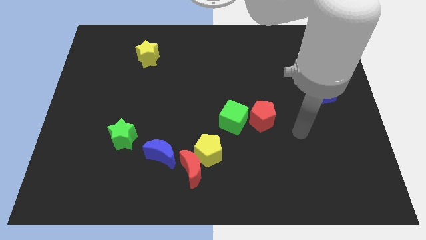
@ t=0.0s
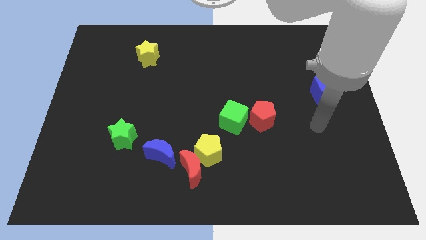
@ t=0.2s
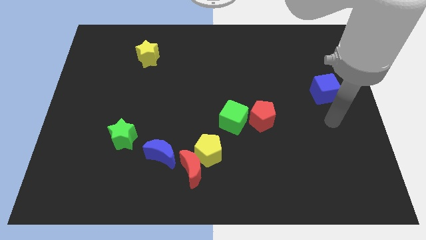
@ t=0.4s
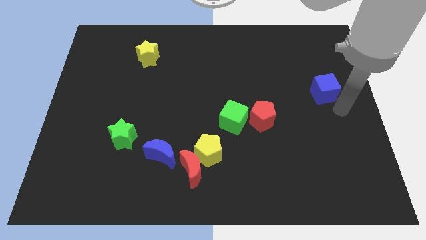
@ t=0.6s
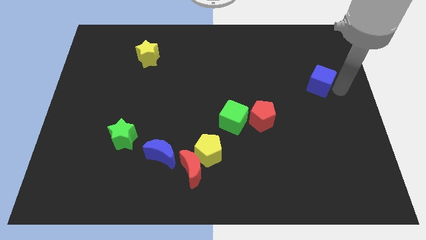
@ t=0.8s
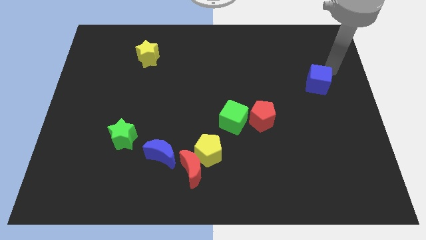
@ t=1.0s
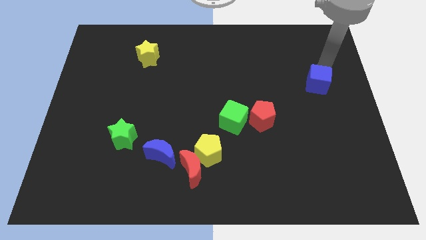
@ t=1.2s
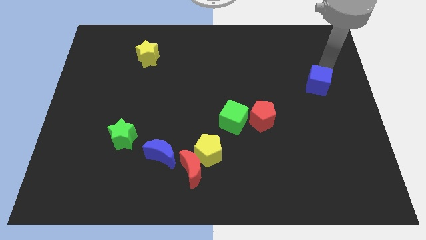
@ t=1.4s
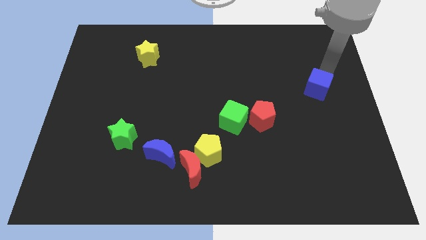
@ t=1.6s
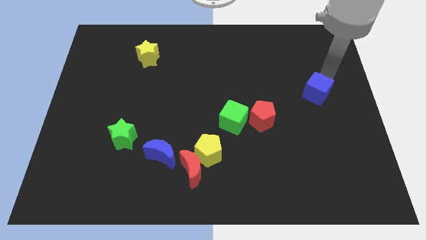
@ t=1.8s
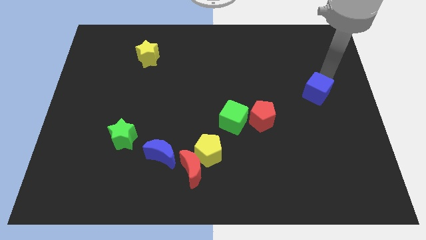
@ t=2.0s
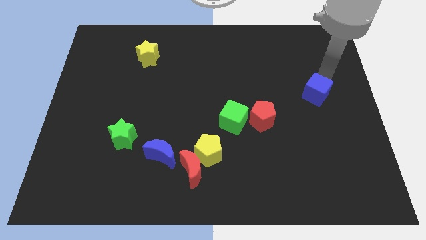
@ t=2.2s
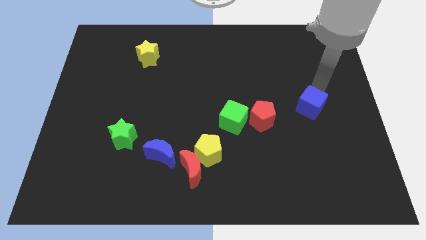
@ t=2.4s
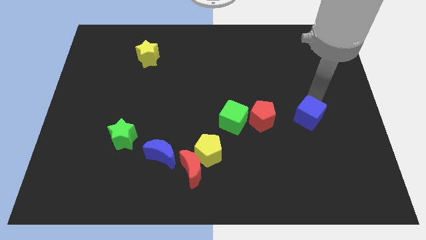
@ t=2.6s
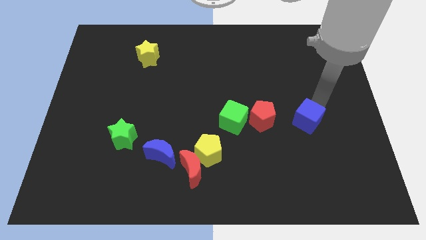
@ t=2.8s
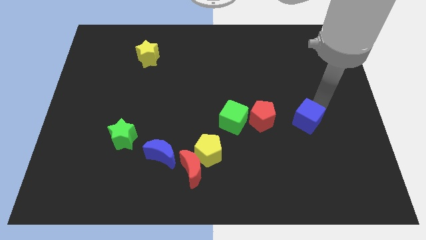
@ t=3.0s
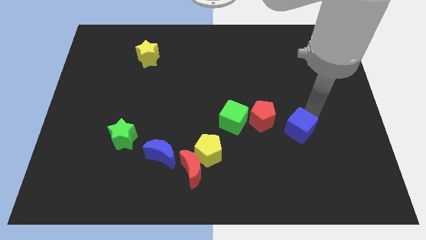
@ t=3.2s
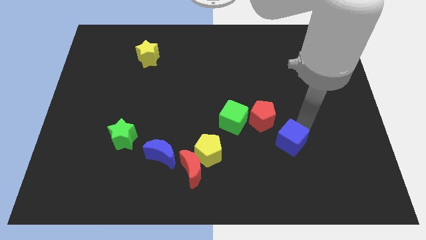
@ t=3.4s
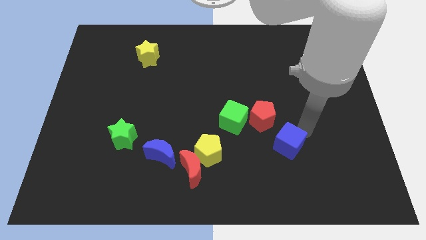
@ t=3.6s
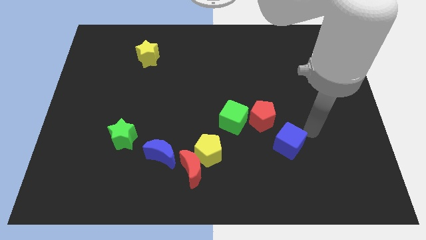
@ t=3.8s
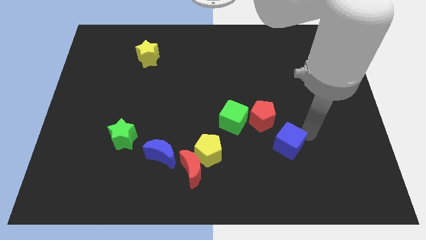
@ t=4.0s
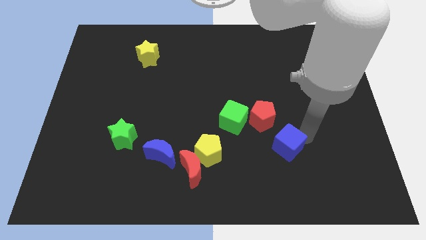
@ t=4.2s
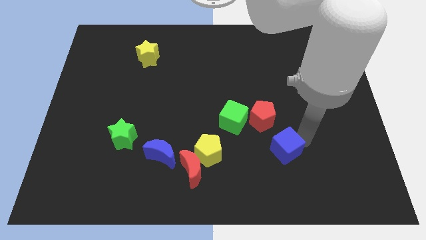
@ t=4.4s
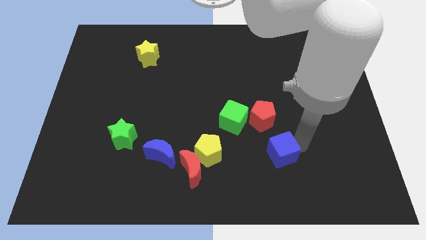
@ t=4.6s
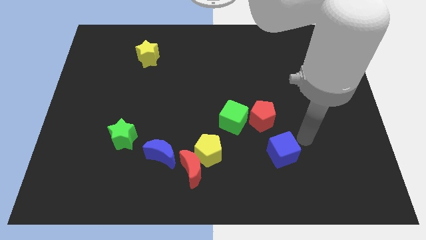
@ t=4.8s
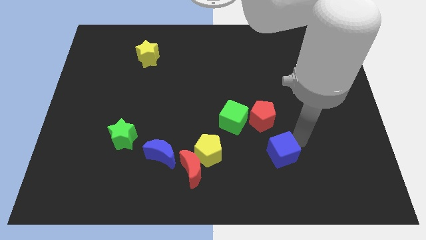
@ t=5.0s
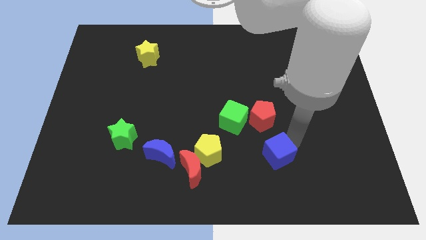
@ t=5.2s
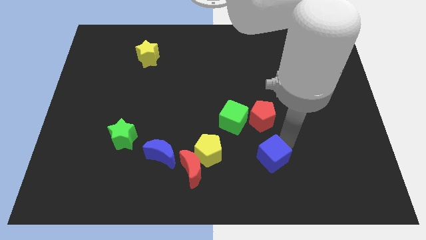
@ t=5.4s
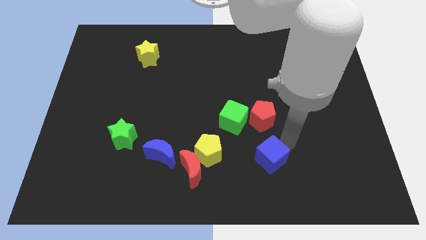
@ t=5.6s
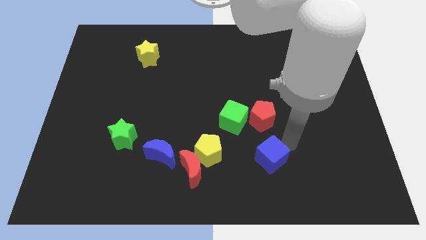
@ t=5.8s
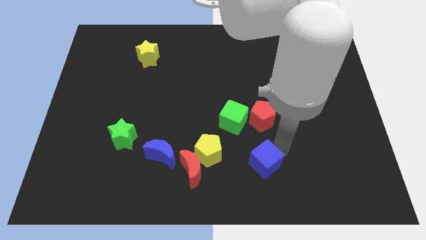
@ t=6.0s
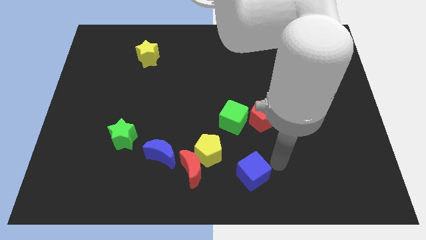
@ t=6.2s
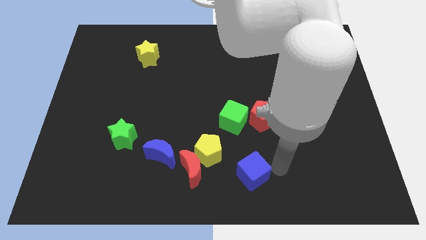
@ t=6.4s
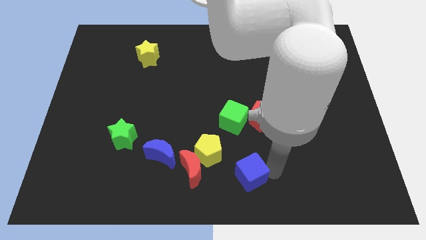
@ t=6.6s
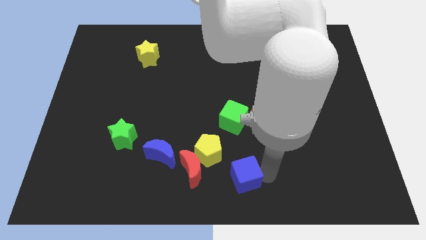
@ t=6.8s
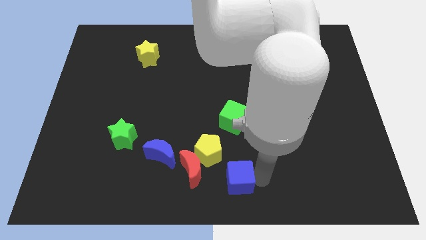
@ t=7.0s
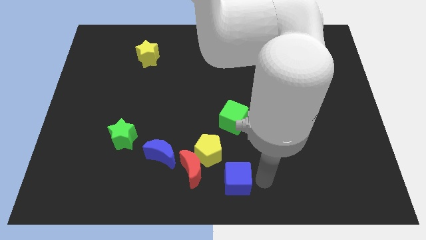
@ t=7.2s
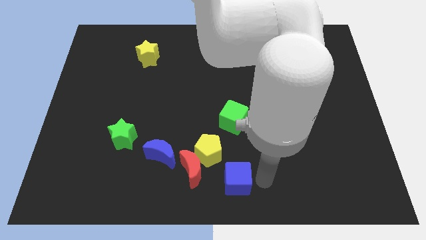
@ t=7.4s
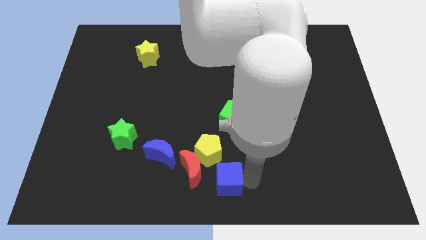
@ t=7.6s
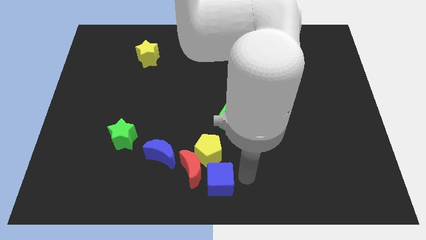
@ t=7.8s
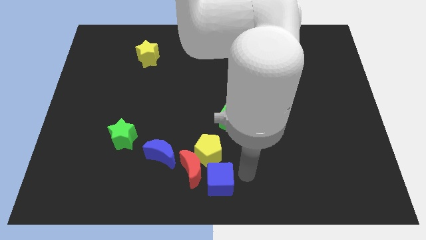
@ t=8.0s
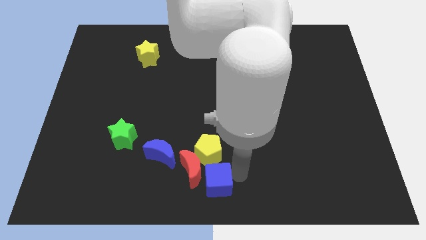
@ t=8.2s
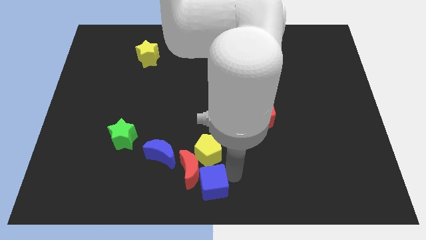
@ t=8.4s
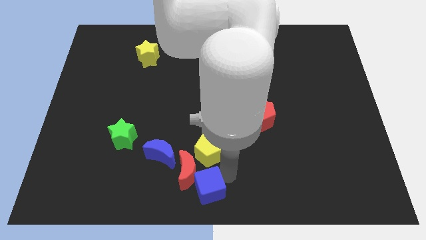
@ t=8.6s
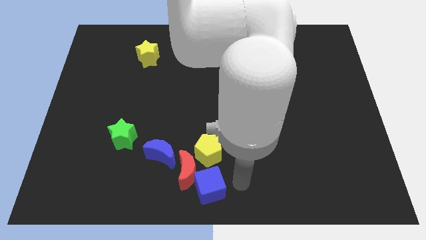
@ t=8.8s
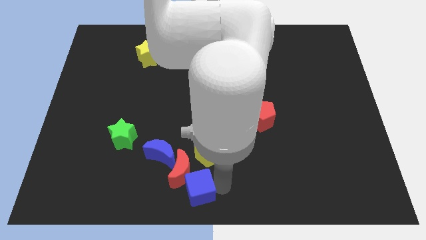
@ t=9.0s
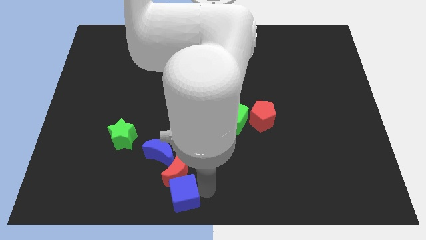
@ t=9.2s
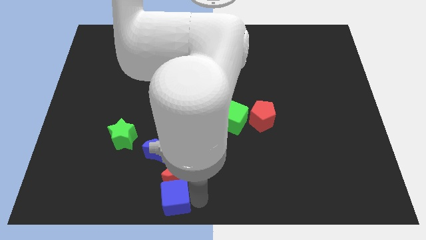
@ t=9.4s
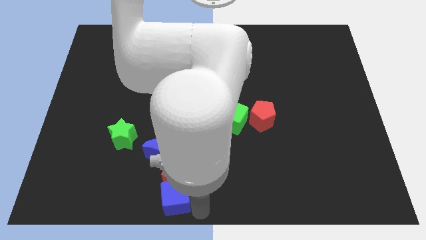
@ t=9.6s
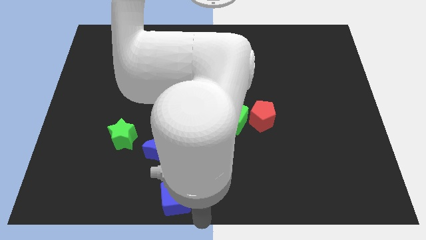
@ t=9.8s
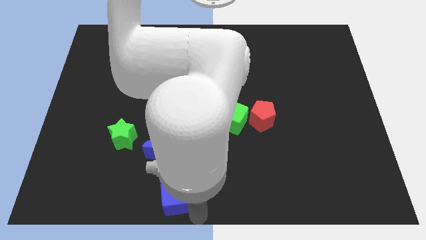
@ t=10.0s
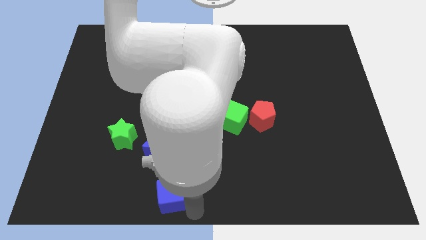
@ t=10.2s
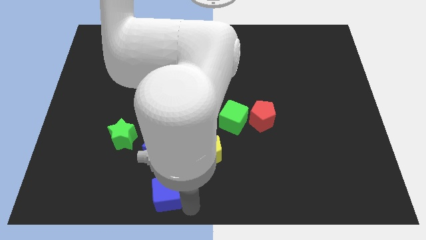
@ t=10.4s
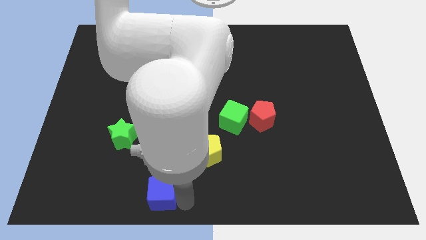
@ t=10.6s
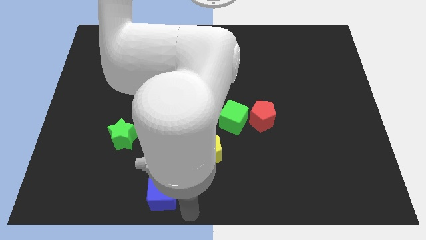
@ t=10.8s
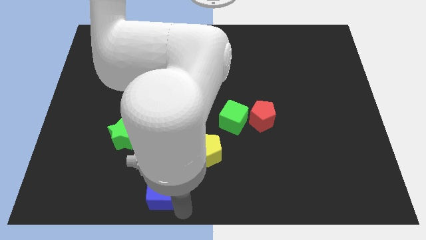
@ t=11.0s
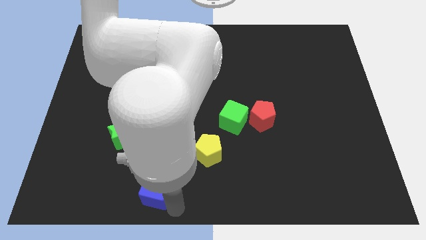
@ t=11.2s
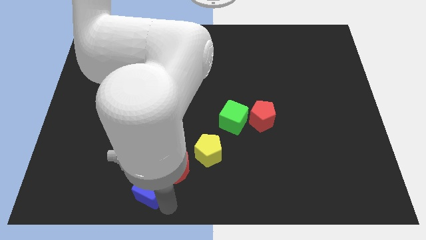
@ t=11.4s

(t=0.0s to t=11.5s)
put the blue cube to the bottom left side of the blue moon

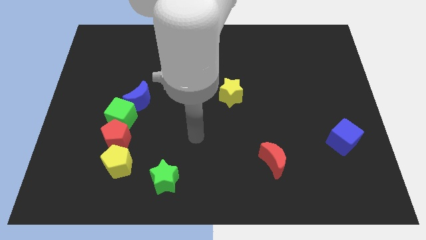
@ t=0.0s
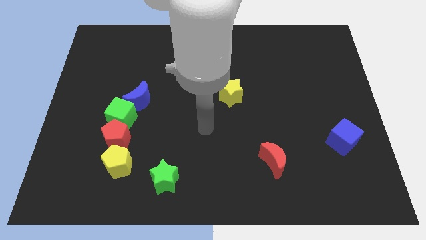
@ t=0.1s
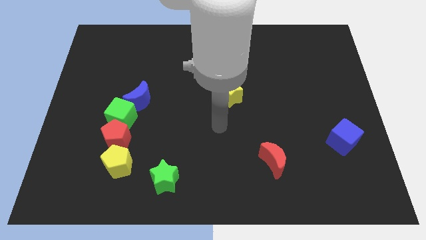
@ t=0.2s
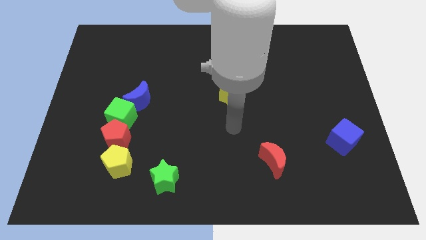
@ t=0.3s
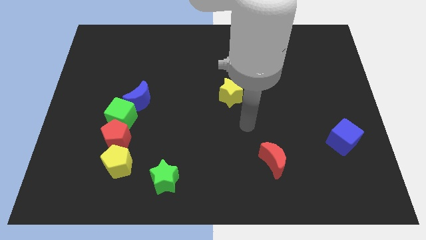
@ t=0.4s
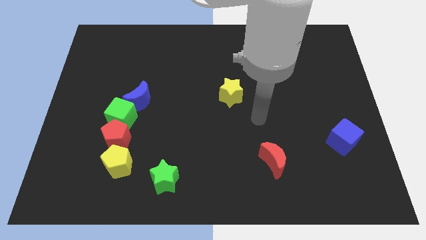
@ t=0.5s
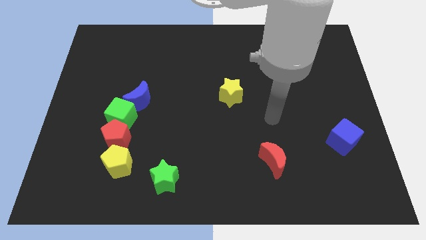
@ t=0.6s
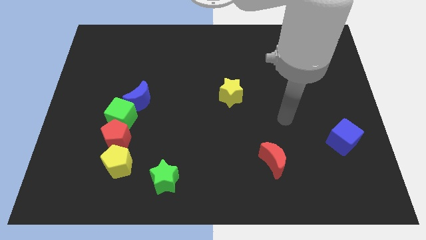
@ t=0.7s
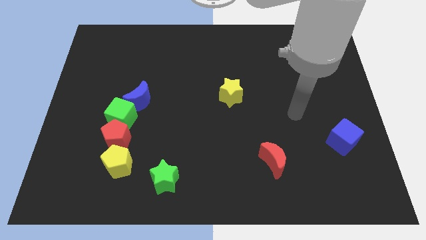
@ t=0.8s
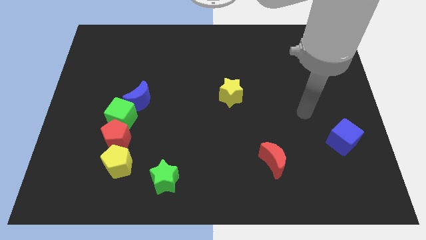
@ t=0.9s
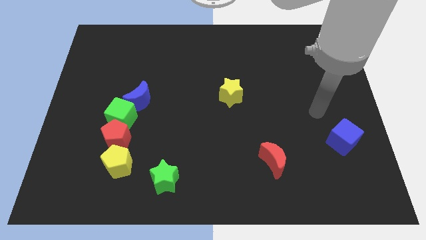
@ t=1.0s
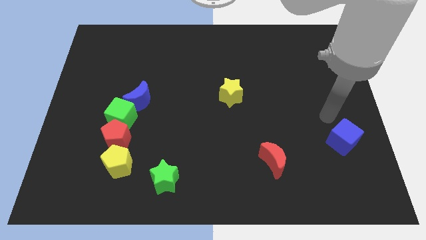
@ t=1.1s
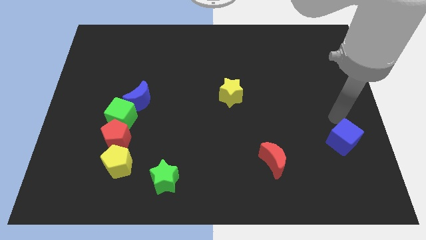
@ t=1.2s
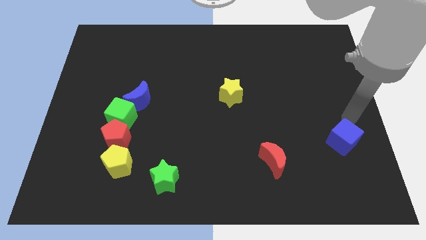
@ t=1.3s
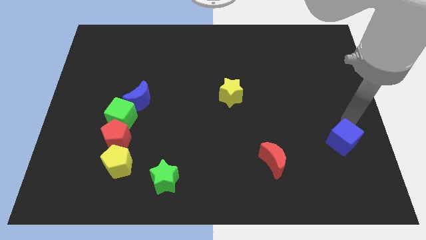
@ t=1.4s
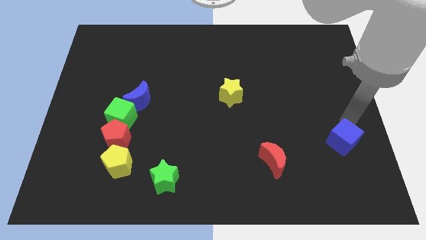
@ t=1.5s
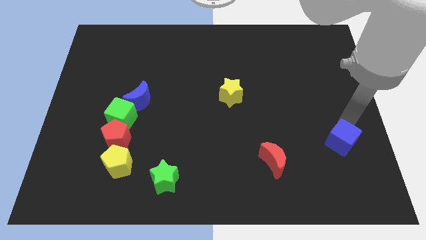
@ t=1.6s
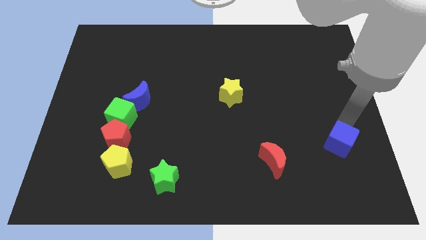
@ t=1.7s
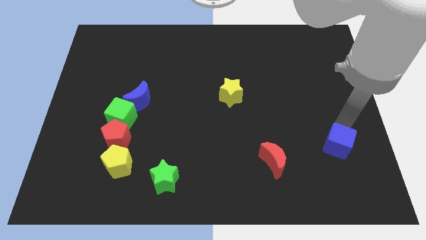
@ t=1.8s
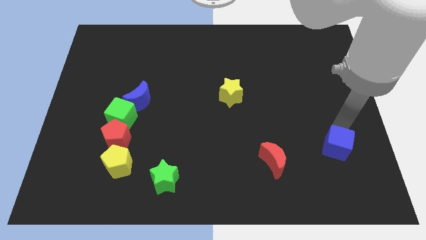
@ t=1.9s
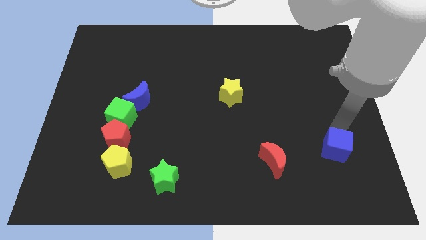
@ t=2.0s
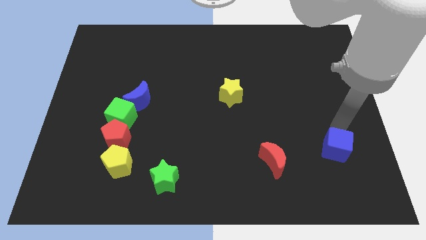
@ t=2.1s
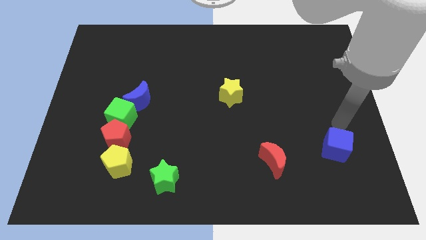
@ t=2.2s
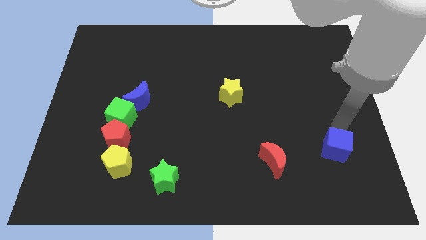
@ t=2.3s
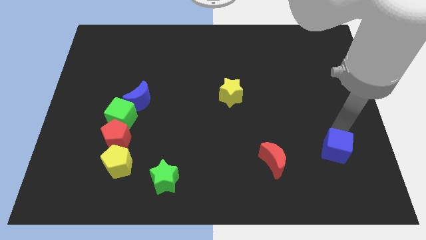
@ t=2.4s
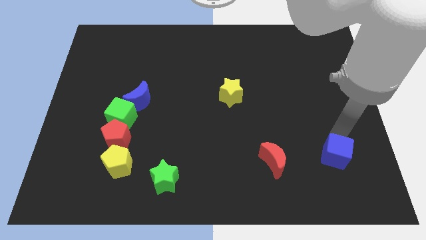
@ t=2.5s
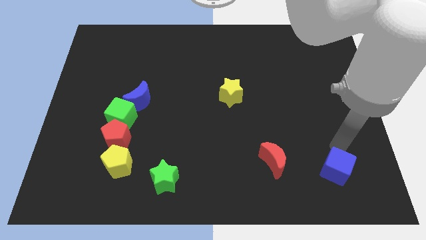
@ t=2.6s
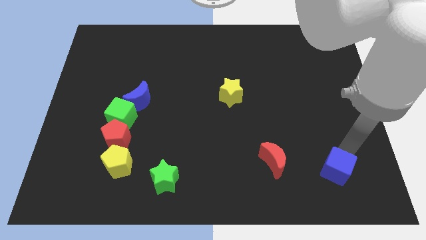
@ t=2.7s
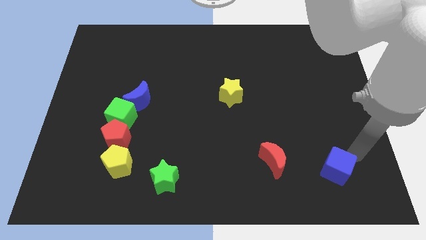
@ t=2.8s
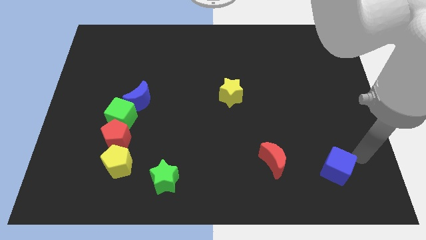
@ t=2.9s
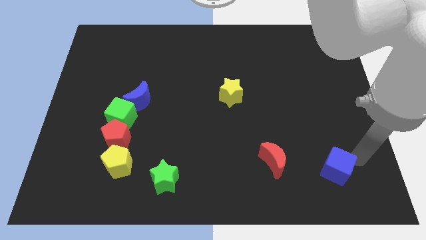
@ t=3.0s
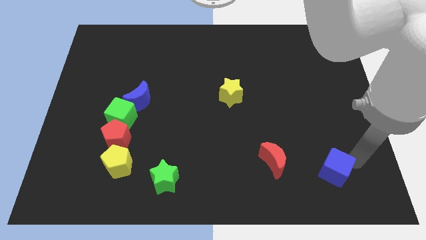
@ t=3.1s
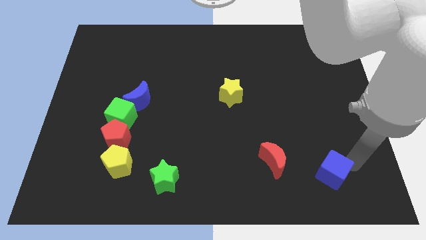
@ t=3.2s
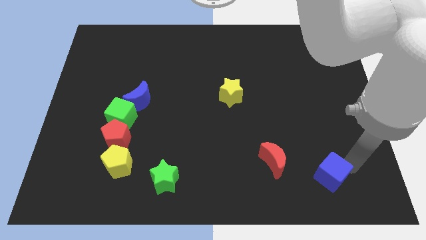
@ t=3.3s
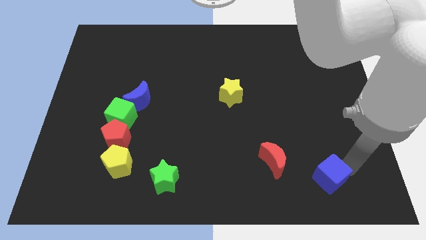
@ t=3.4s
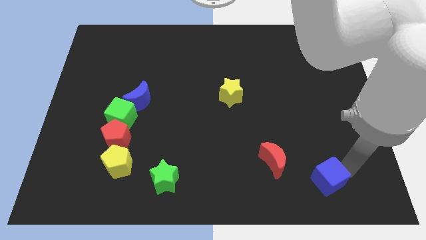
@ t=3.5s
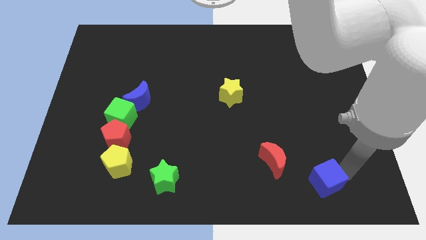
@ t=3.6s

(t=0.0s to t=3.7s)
push the blue cube diagonally down and to the right of the red moon
